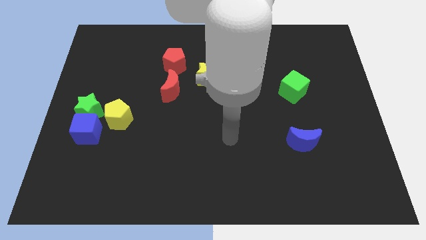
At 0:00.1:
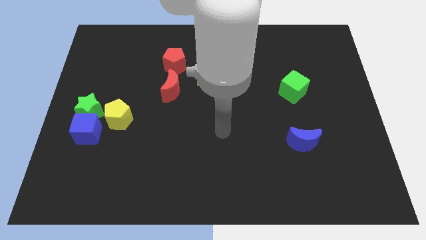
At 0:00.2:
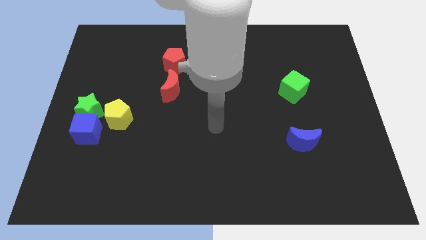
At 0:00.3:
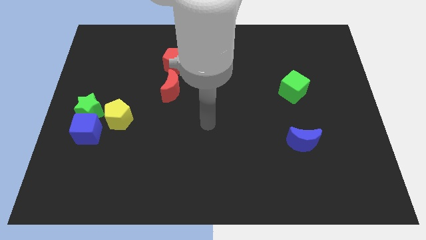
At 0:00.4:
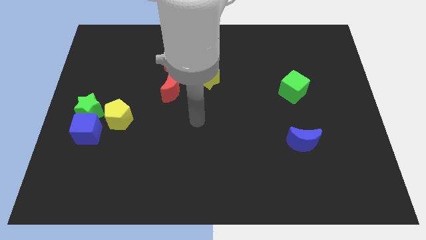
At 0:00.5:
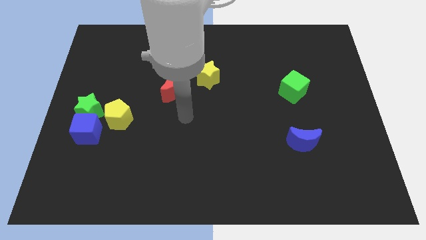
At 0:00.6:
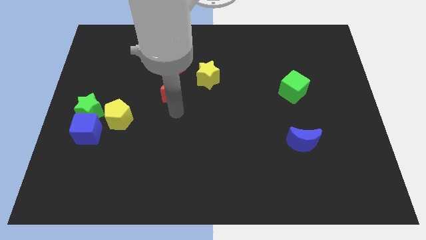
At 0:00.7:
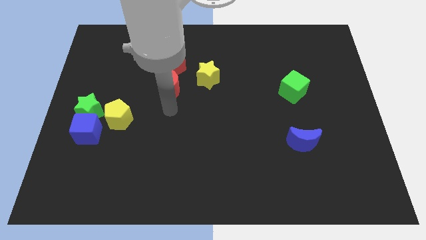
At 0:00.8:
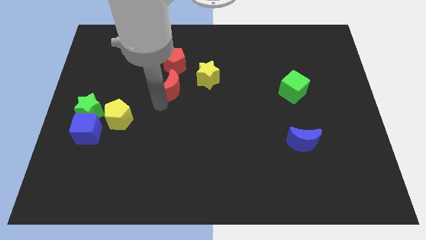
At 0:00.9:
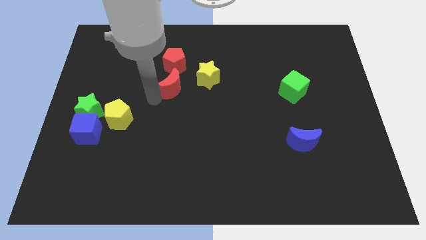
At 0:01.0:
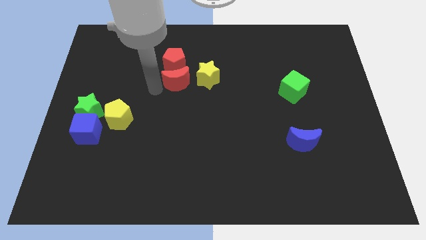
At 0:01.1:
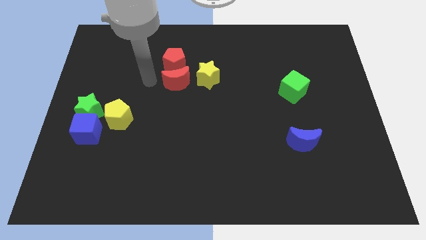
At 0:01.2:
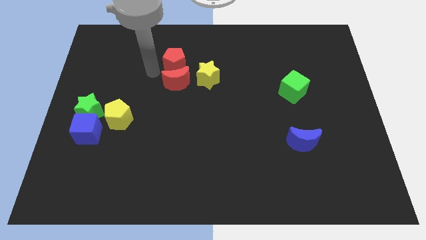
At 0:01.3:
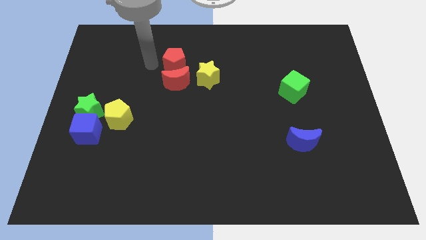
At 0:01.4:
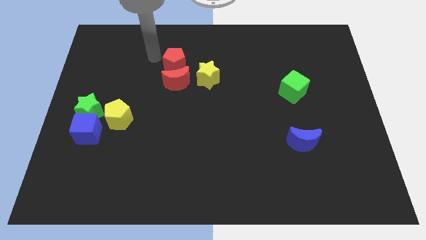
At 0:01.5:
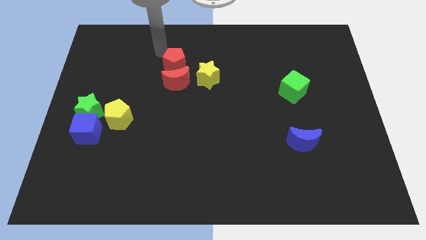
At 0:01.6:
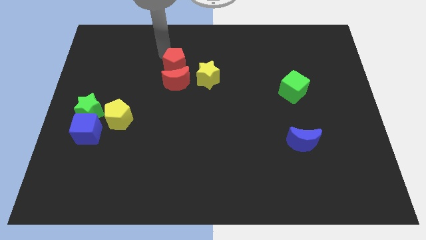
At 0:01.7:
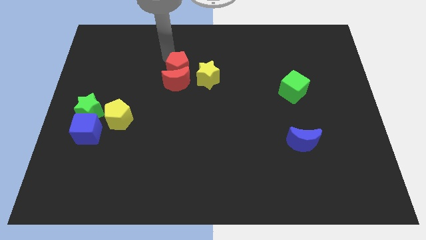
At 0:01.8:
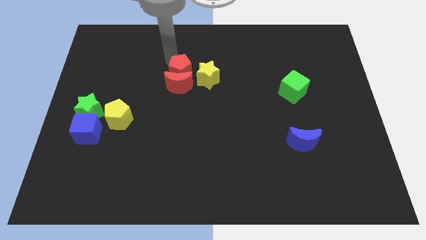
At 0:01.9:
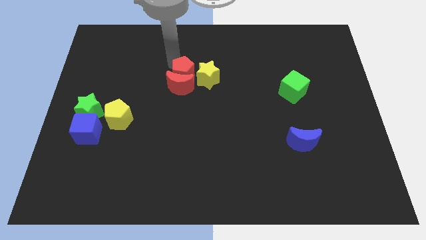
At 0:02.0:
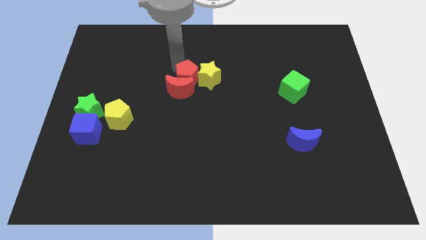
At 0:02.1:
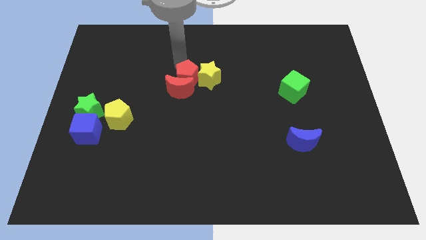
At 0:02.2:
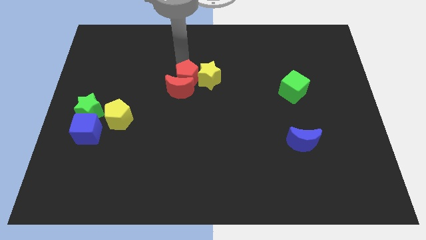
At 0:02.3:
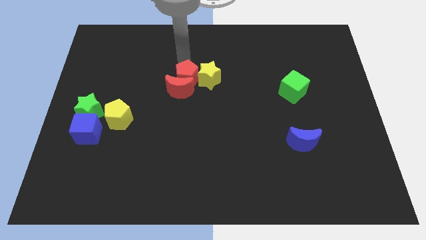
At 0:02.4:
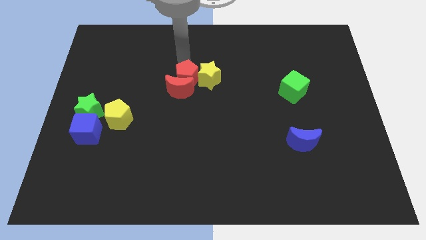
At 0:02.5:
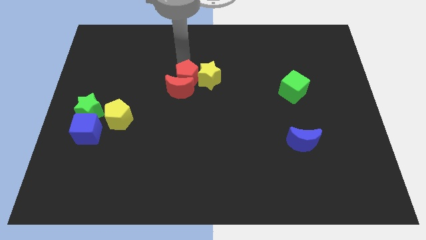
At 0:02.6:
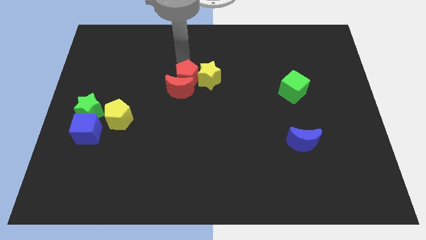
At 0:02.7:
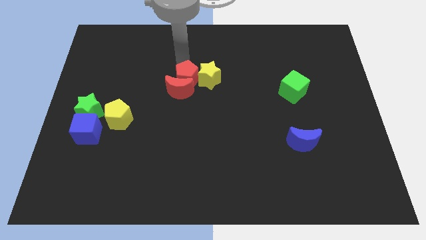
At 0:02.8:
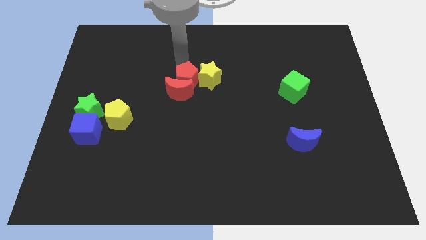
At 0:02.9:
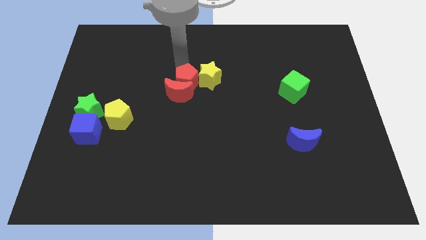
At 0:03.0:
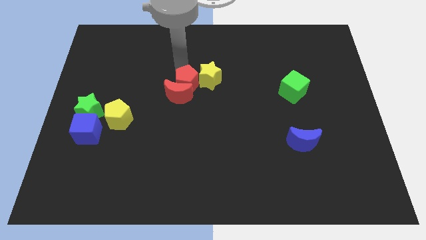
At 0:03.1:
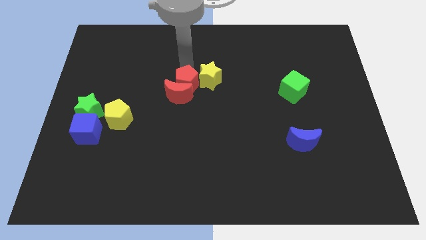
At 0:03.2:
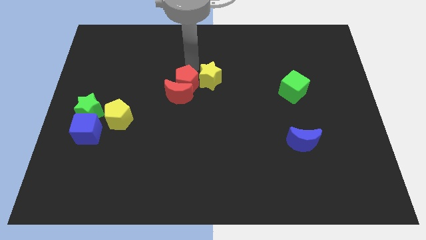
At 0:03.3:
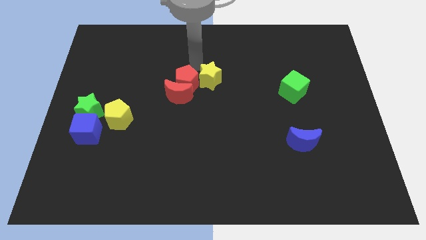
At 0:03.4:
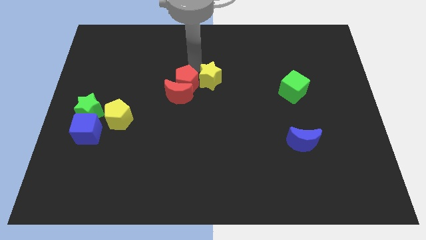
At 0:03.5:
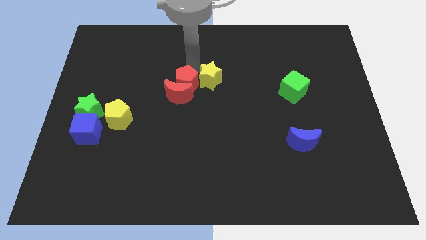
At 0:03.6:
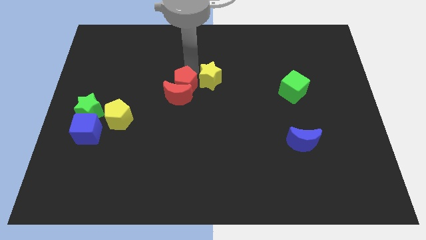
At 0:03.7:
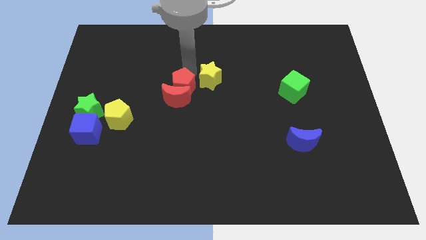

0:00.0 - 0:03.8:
slightly move the red pentagon downwards

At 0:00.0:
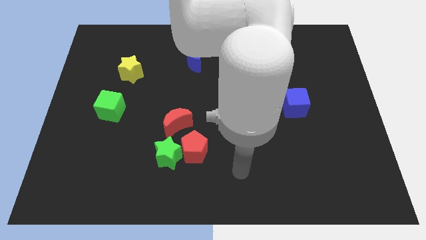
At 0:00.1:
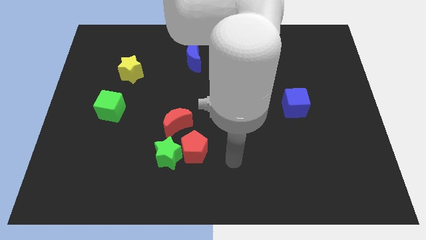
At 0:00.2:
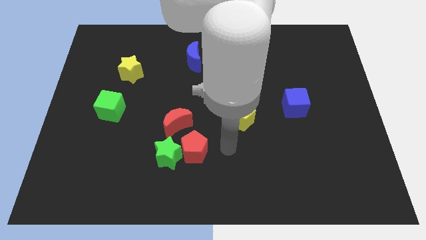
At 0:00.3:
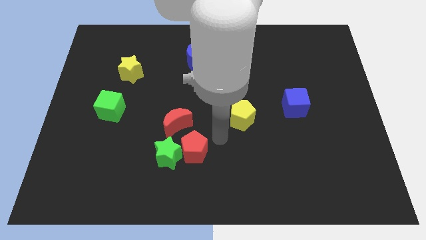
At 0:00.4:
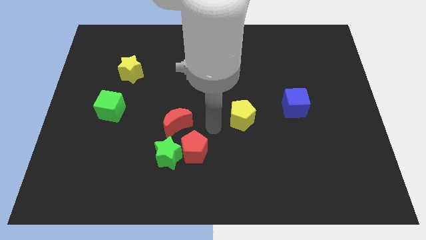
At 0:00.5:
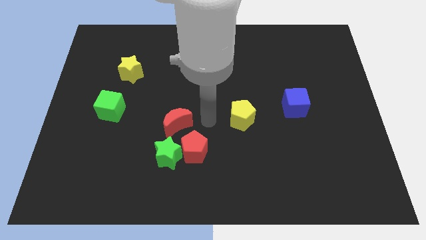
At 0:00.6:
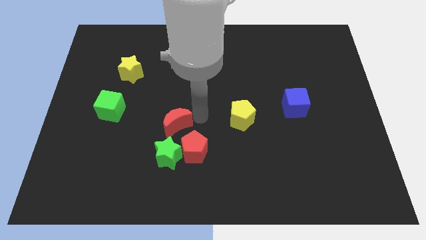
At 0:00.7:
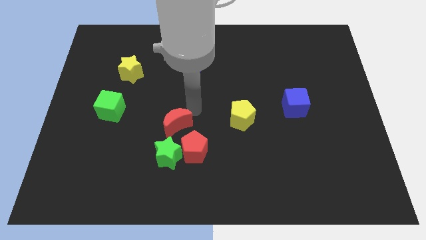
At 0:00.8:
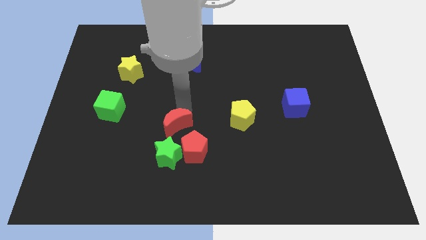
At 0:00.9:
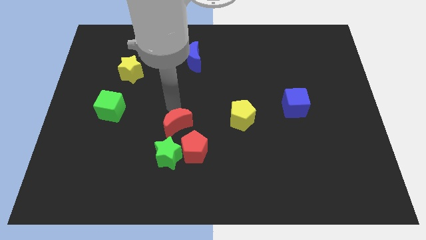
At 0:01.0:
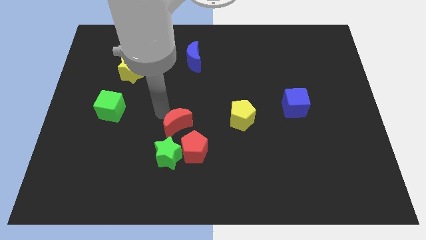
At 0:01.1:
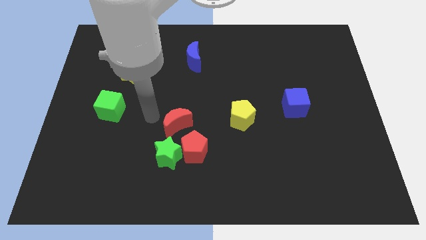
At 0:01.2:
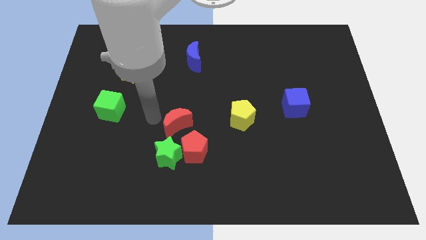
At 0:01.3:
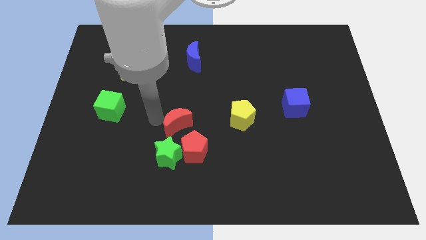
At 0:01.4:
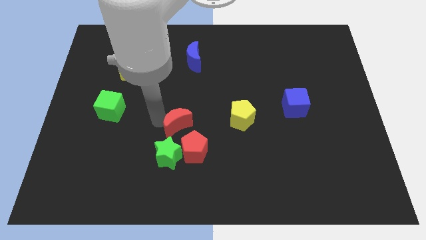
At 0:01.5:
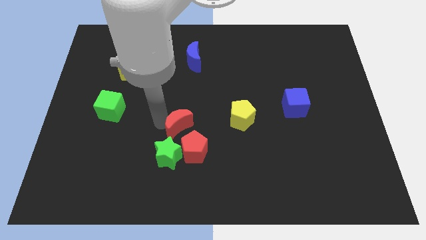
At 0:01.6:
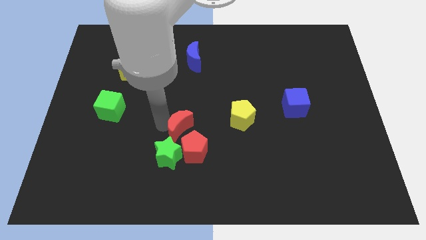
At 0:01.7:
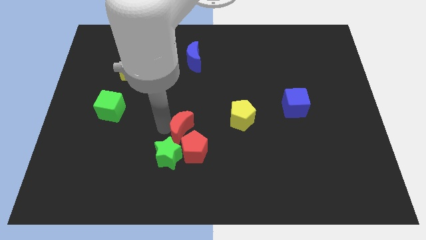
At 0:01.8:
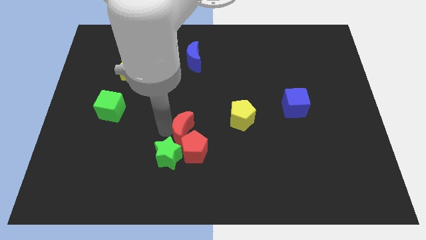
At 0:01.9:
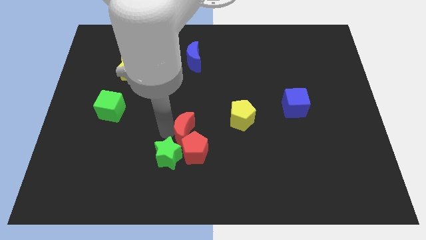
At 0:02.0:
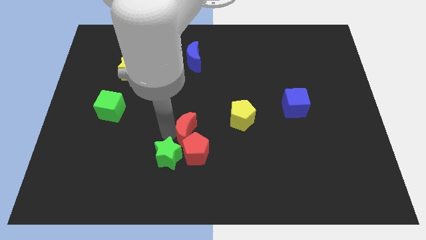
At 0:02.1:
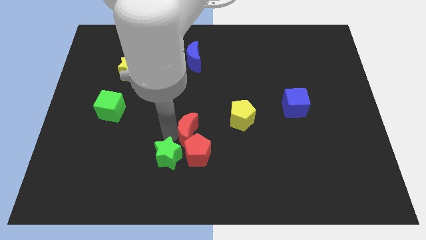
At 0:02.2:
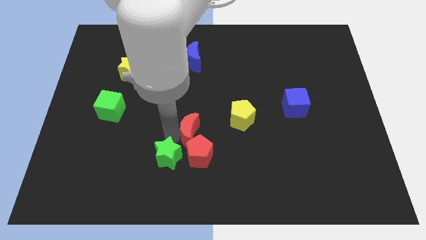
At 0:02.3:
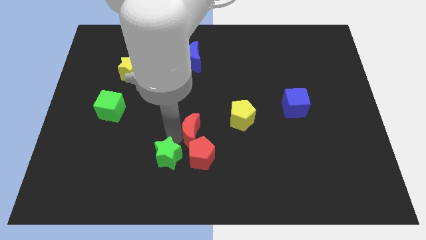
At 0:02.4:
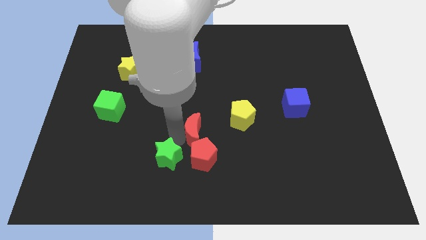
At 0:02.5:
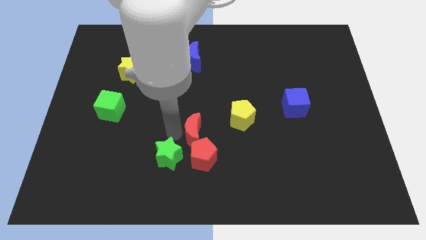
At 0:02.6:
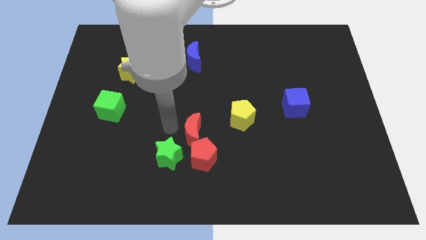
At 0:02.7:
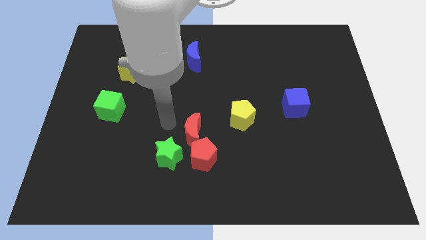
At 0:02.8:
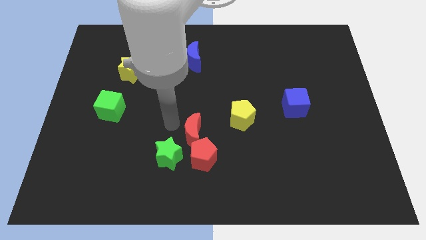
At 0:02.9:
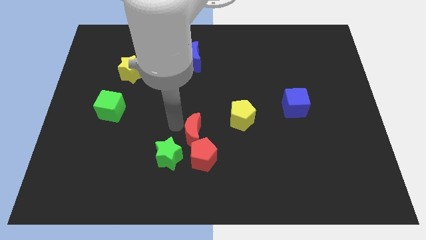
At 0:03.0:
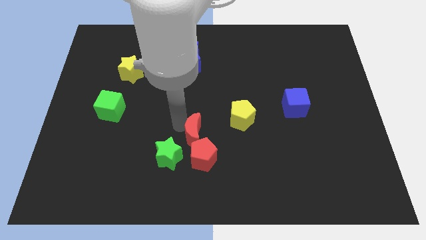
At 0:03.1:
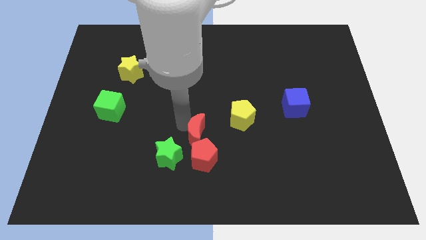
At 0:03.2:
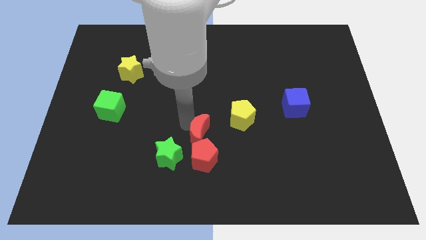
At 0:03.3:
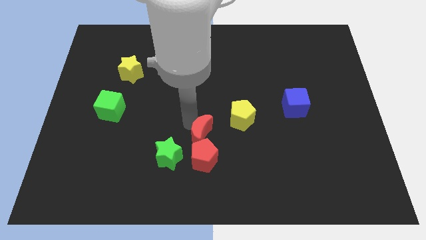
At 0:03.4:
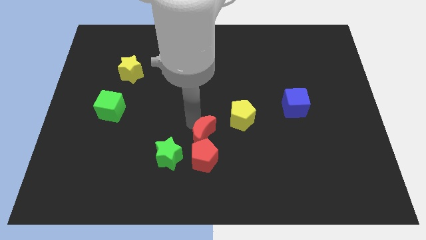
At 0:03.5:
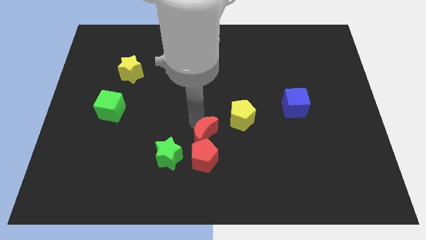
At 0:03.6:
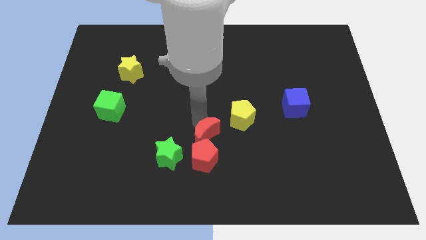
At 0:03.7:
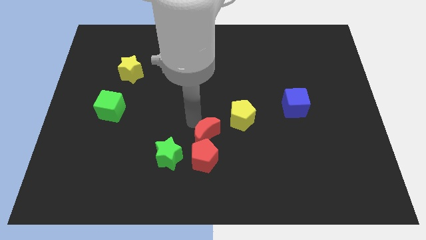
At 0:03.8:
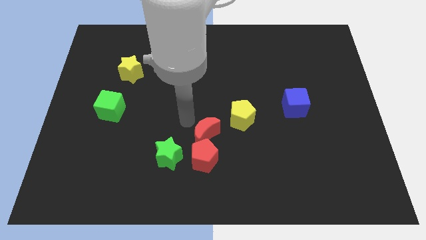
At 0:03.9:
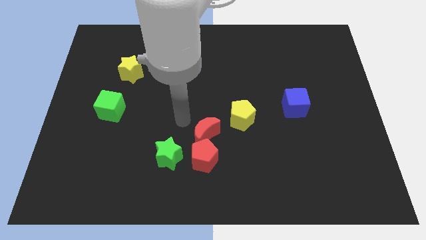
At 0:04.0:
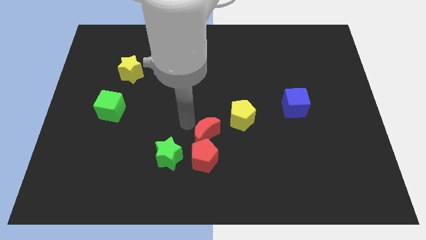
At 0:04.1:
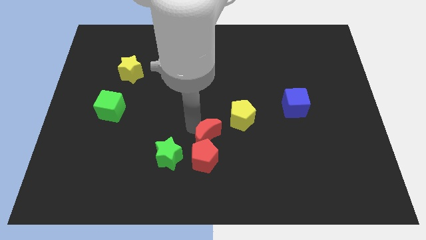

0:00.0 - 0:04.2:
slide the red moon down and then to the right somewhat
